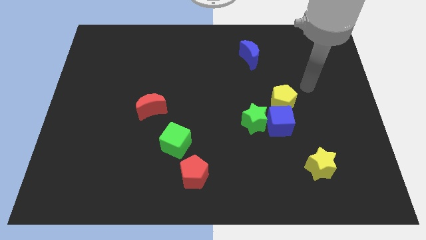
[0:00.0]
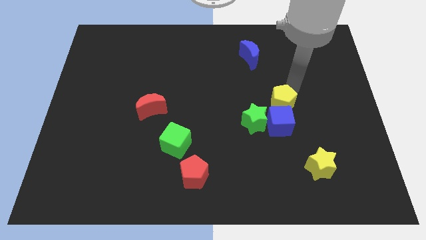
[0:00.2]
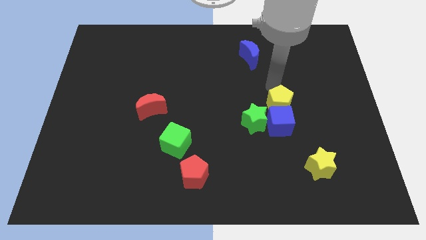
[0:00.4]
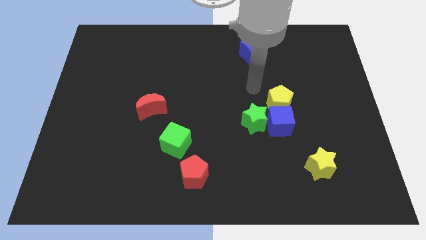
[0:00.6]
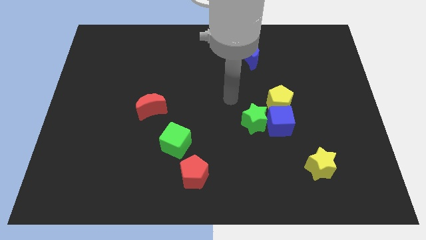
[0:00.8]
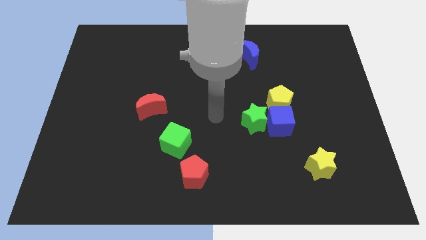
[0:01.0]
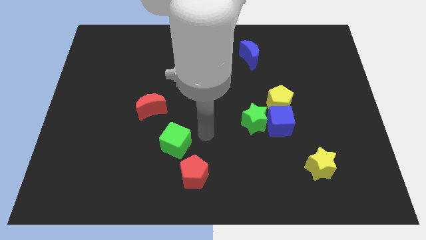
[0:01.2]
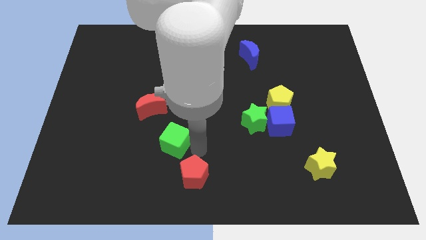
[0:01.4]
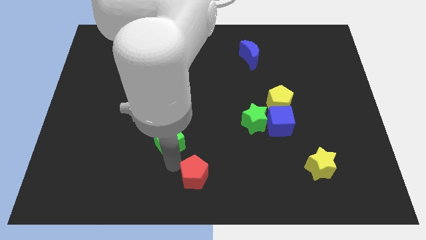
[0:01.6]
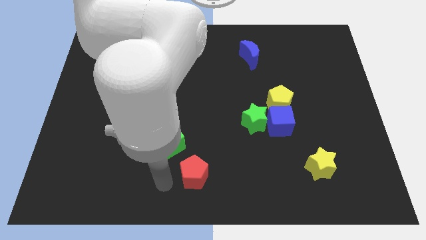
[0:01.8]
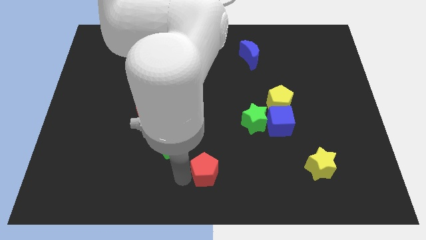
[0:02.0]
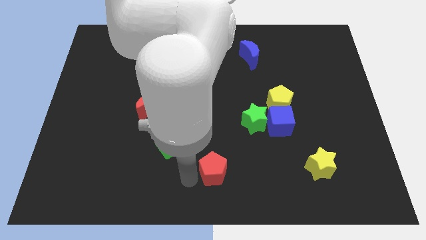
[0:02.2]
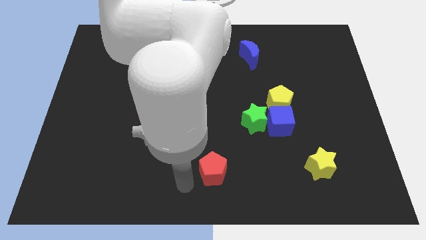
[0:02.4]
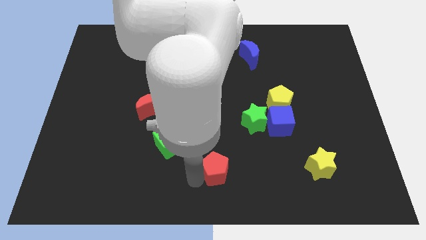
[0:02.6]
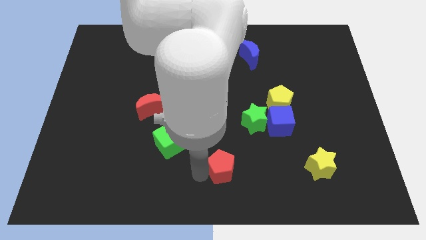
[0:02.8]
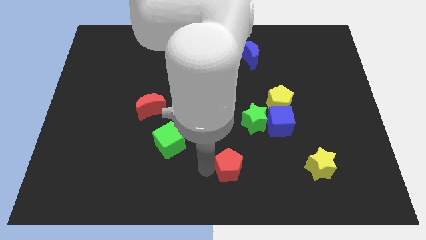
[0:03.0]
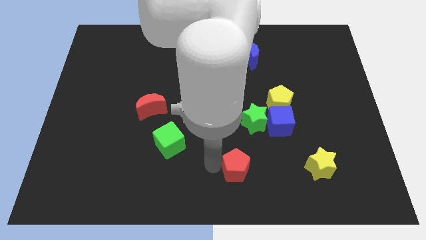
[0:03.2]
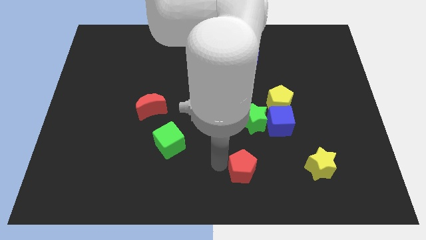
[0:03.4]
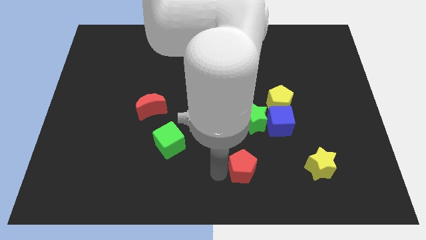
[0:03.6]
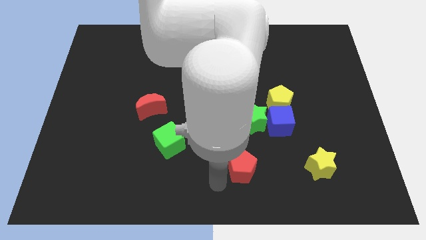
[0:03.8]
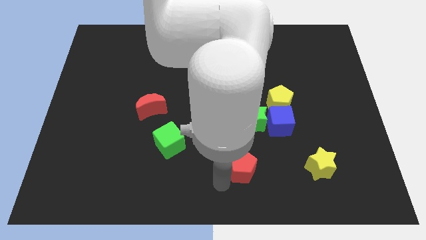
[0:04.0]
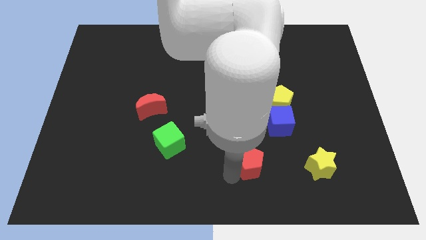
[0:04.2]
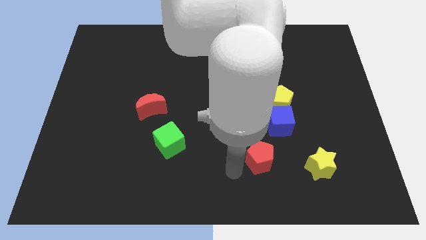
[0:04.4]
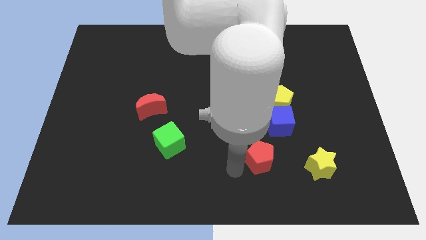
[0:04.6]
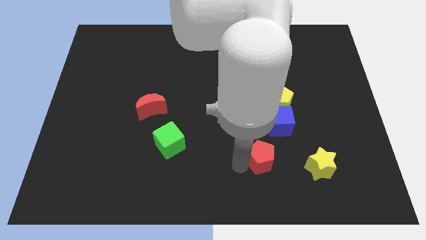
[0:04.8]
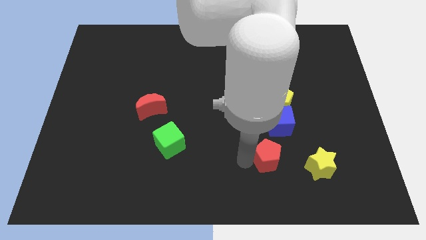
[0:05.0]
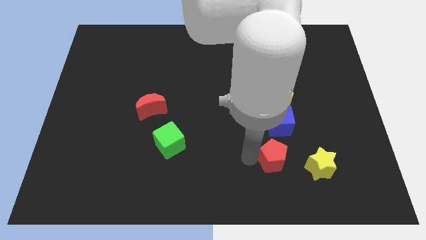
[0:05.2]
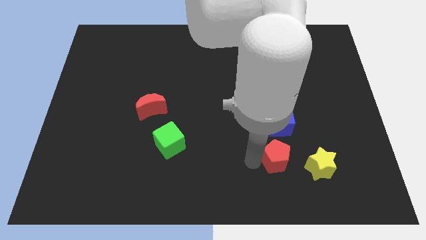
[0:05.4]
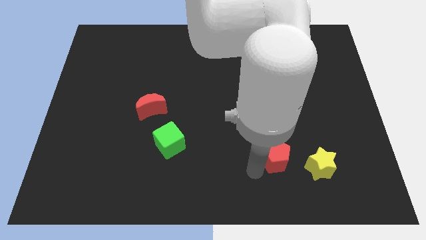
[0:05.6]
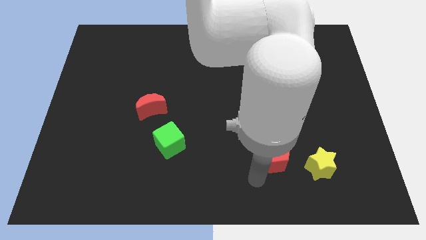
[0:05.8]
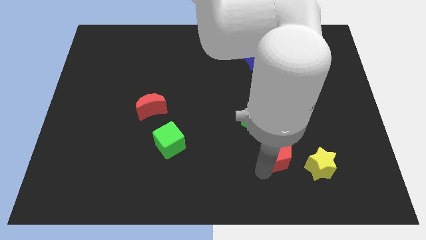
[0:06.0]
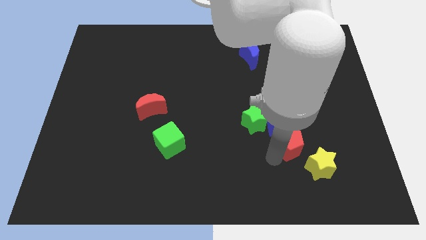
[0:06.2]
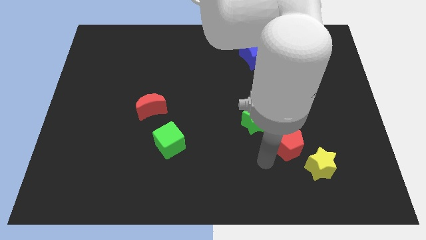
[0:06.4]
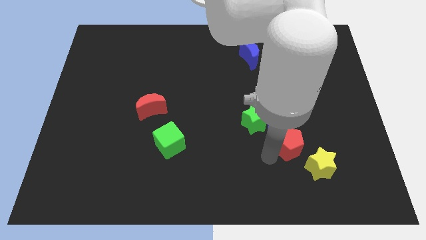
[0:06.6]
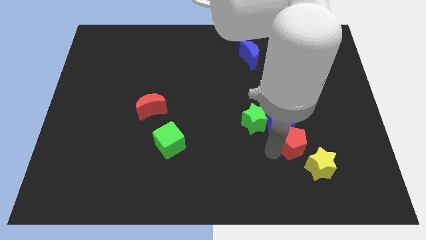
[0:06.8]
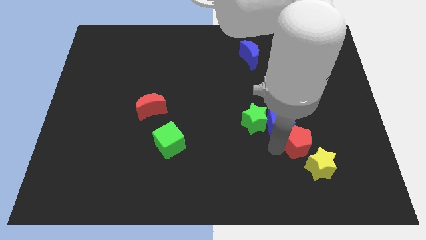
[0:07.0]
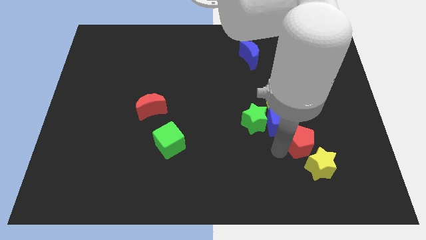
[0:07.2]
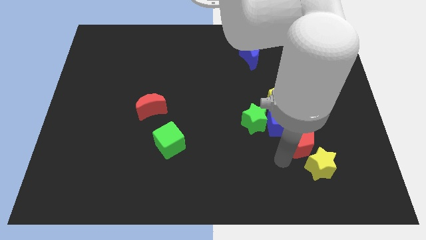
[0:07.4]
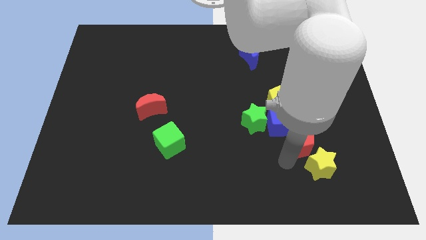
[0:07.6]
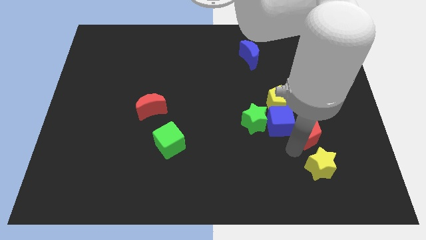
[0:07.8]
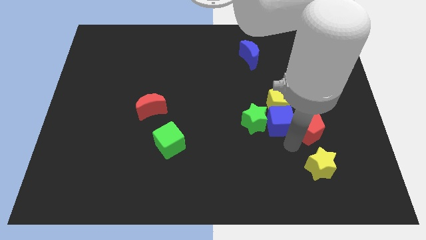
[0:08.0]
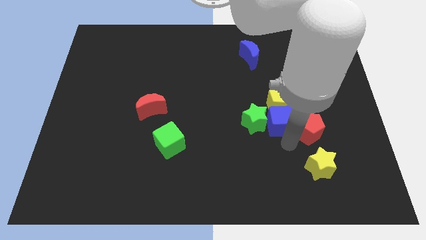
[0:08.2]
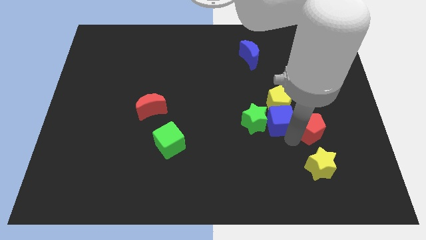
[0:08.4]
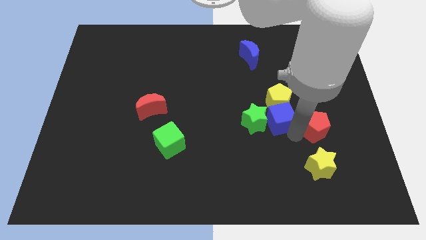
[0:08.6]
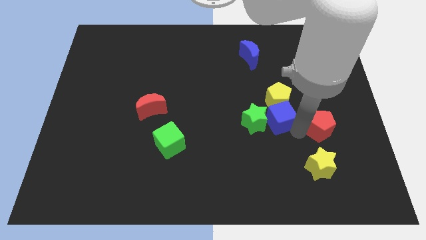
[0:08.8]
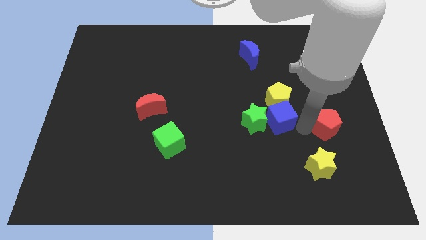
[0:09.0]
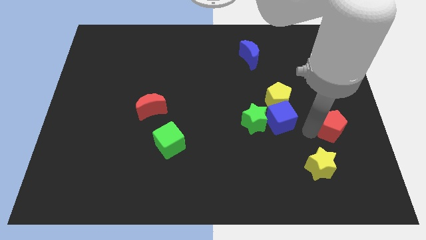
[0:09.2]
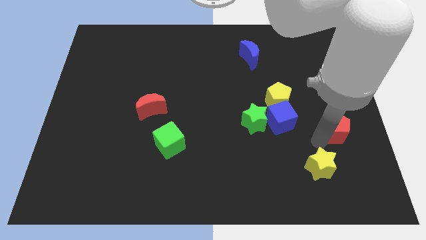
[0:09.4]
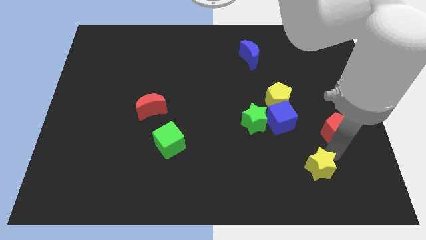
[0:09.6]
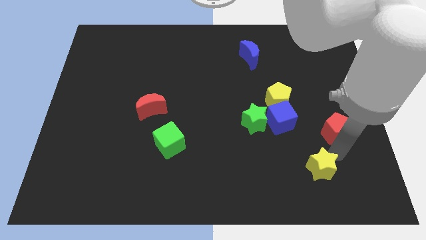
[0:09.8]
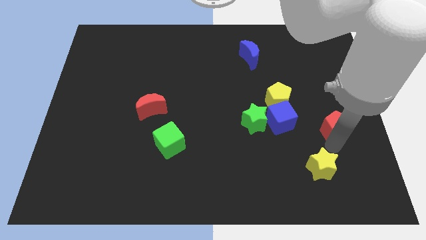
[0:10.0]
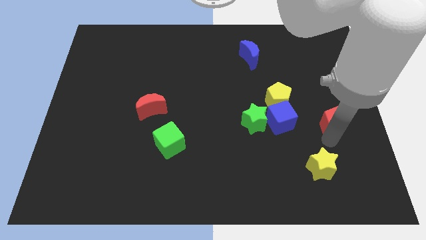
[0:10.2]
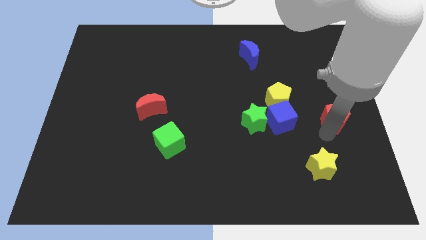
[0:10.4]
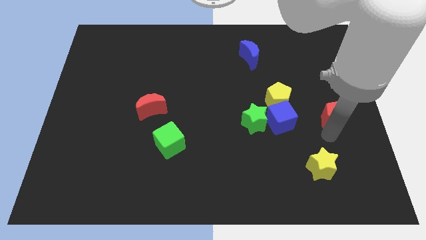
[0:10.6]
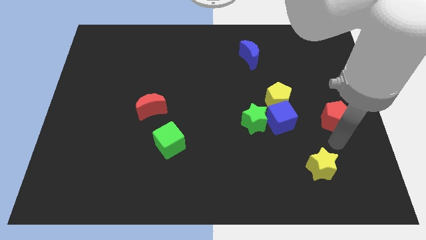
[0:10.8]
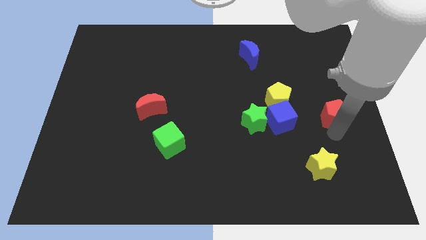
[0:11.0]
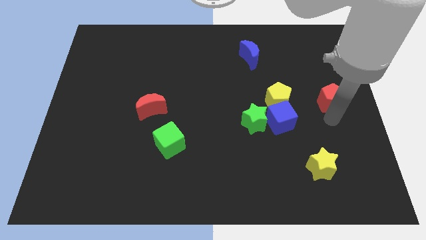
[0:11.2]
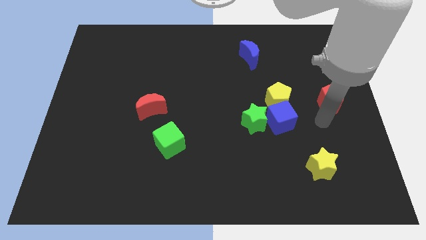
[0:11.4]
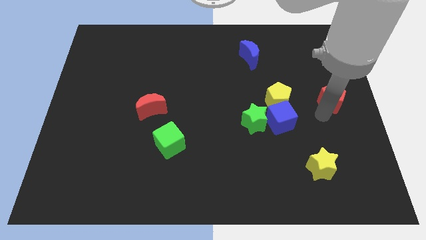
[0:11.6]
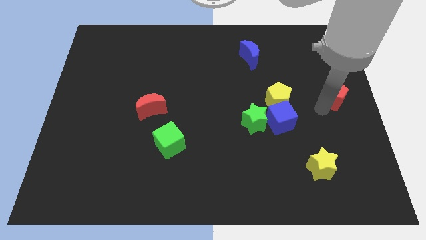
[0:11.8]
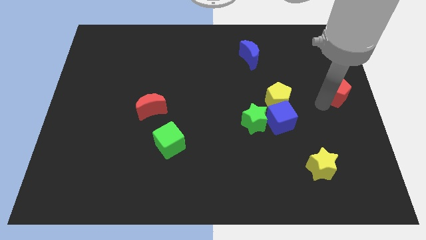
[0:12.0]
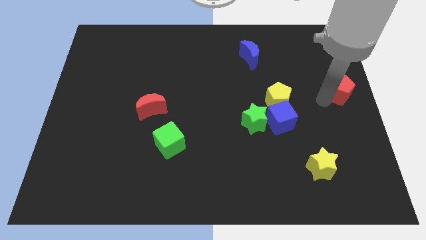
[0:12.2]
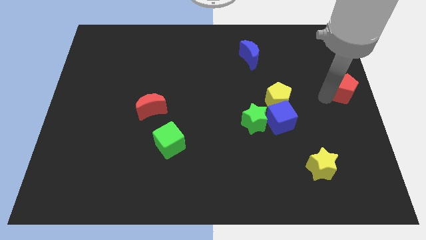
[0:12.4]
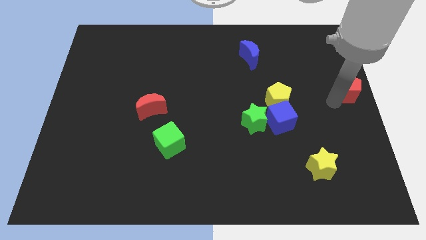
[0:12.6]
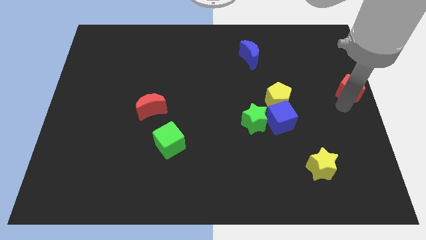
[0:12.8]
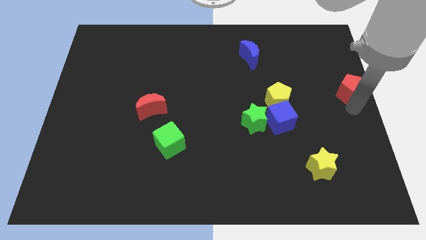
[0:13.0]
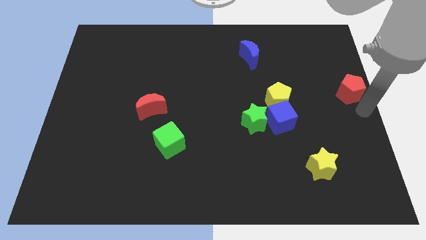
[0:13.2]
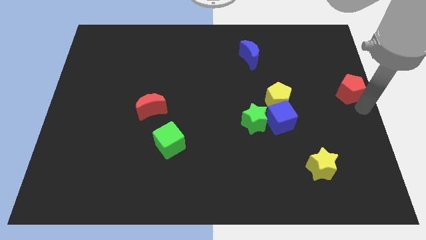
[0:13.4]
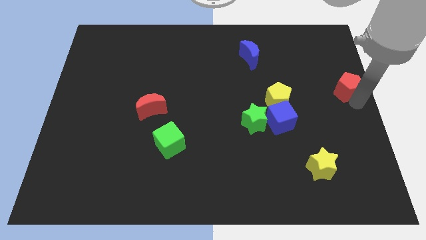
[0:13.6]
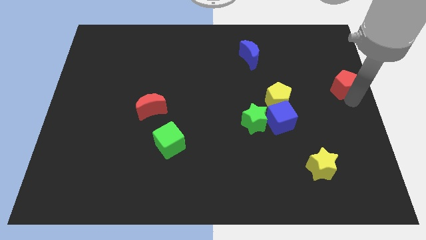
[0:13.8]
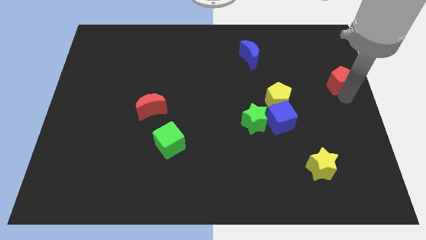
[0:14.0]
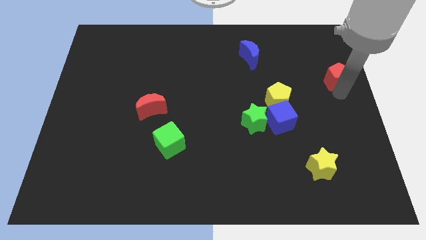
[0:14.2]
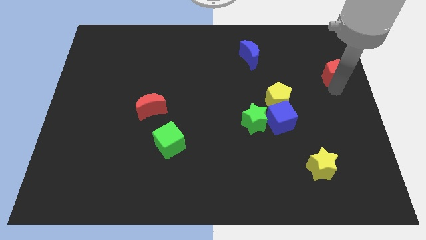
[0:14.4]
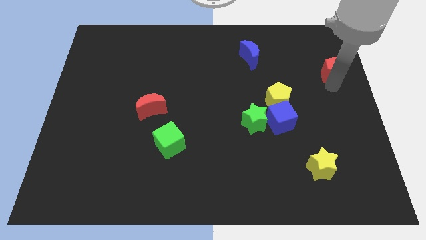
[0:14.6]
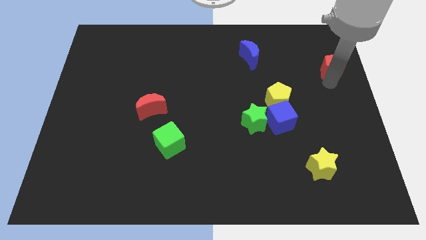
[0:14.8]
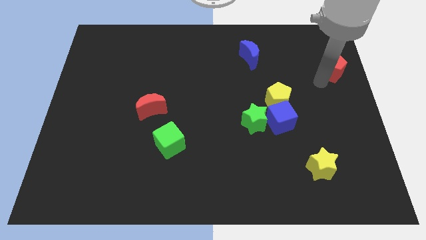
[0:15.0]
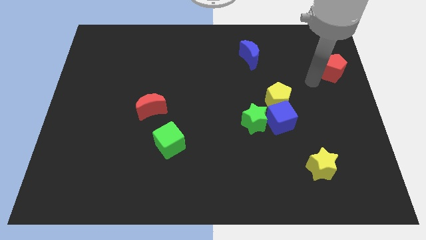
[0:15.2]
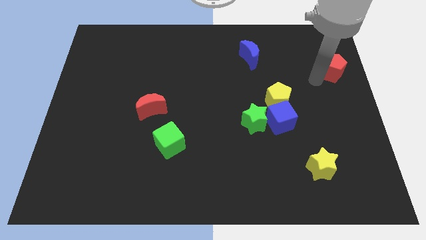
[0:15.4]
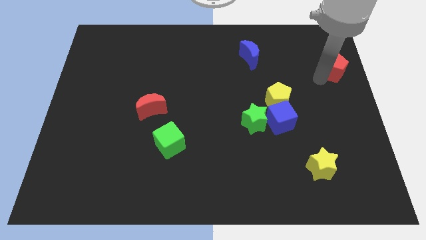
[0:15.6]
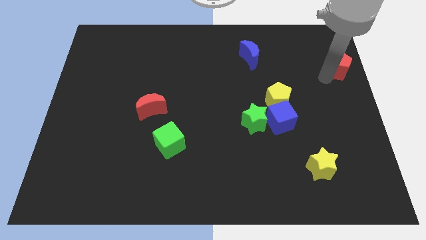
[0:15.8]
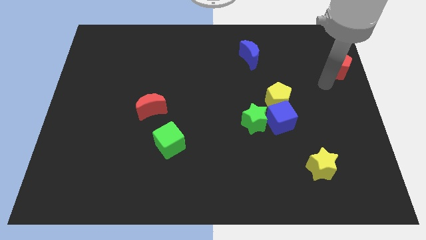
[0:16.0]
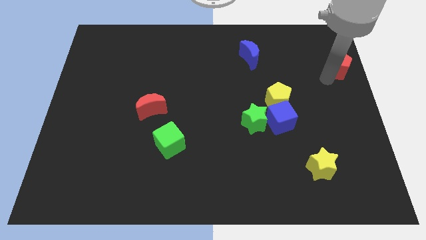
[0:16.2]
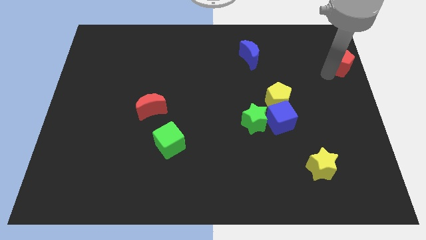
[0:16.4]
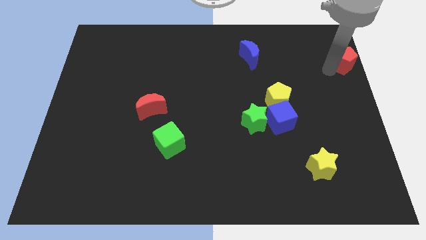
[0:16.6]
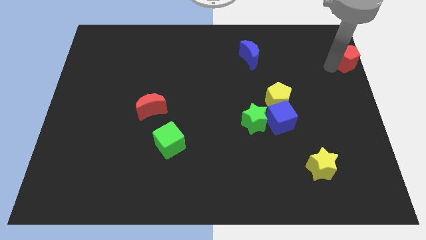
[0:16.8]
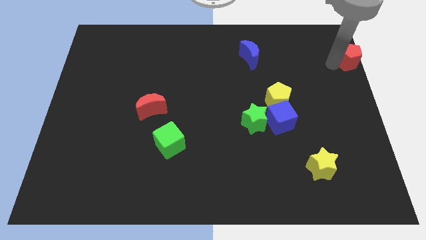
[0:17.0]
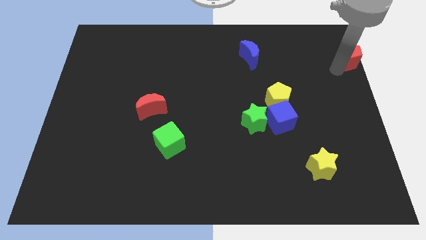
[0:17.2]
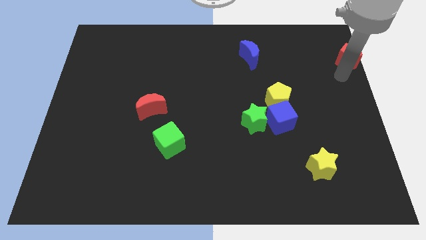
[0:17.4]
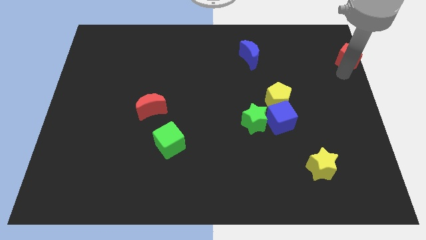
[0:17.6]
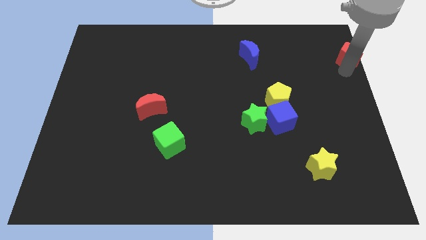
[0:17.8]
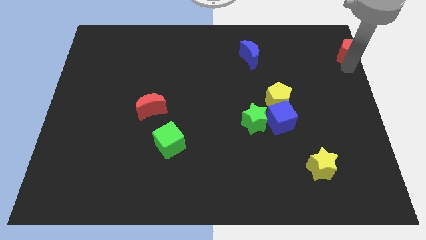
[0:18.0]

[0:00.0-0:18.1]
push the red pentagon to the top right corner
